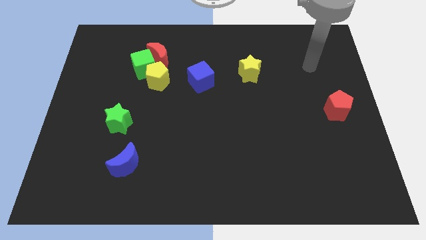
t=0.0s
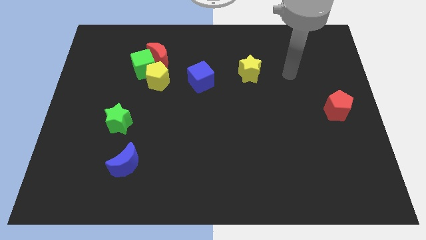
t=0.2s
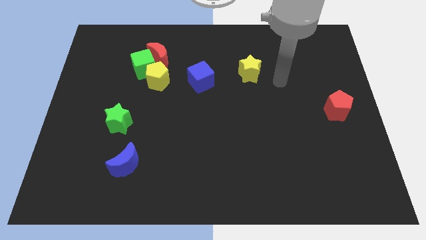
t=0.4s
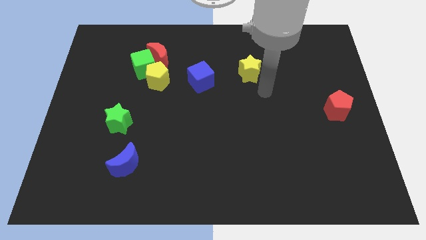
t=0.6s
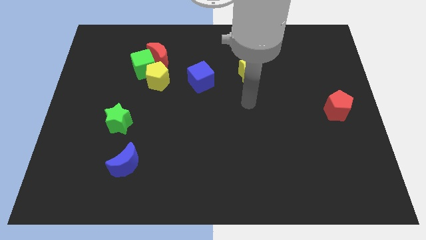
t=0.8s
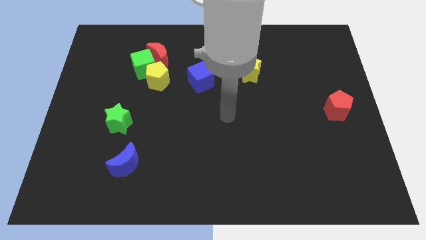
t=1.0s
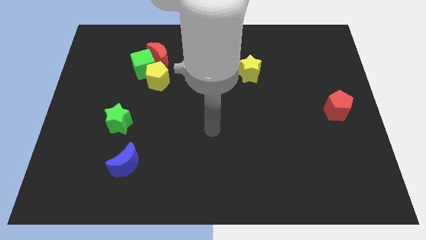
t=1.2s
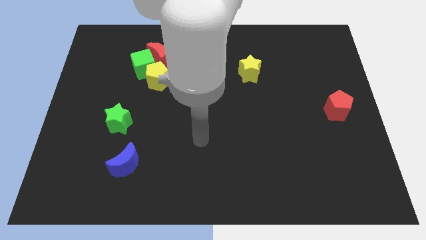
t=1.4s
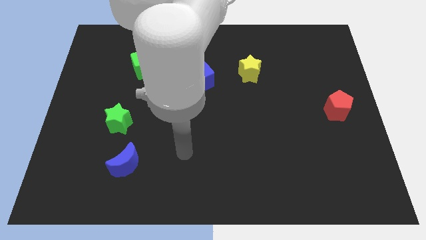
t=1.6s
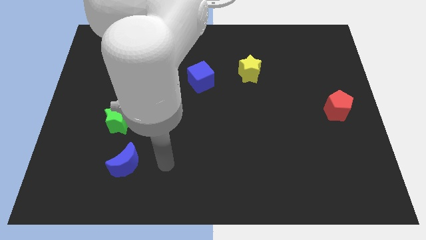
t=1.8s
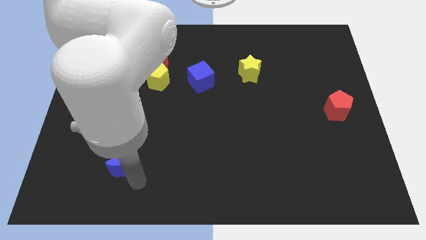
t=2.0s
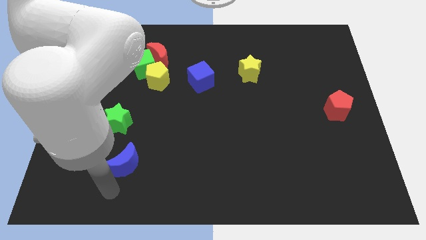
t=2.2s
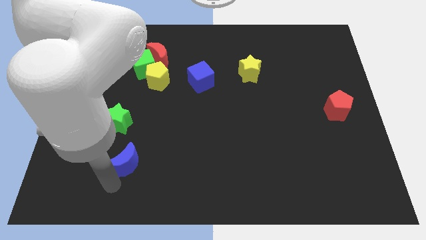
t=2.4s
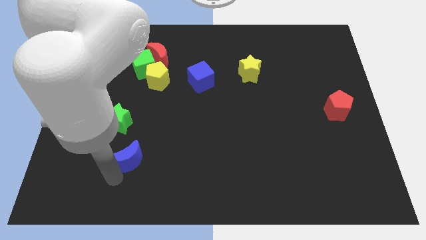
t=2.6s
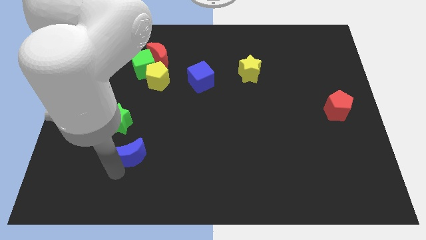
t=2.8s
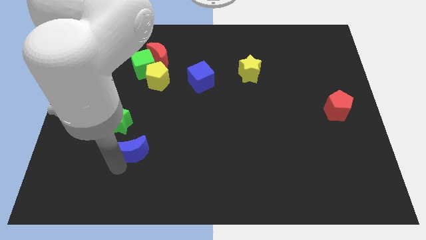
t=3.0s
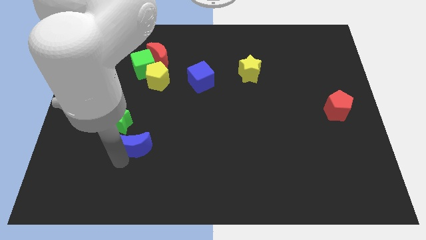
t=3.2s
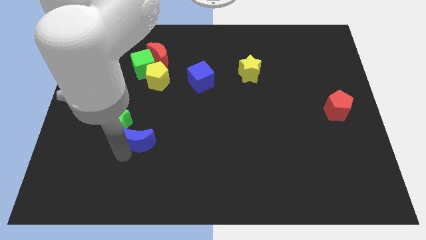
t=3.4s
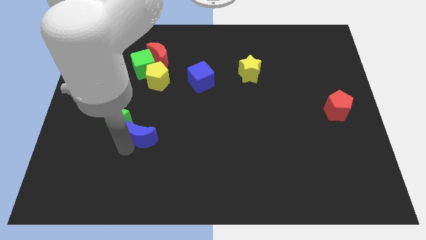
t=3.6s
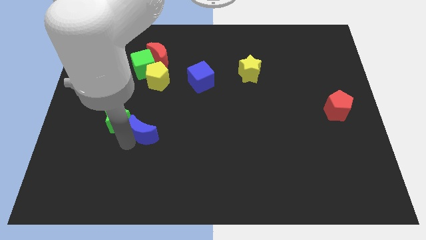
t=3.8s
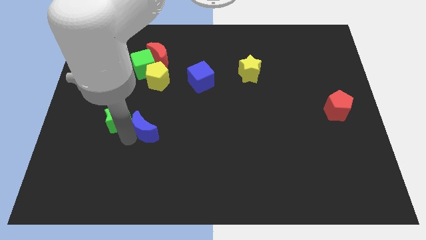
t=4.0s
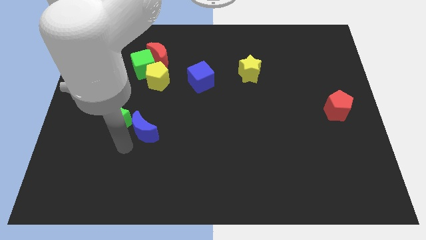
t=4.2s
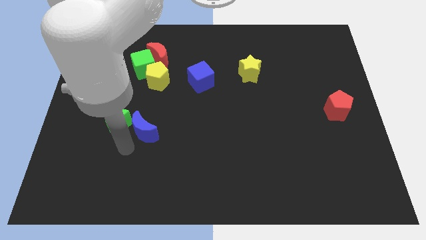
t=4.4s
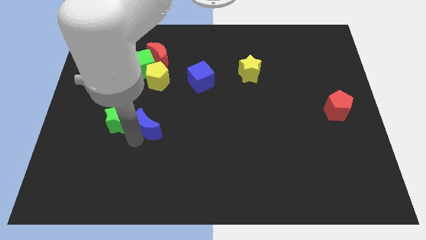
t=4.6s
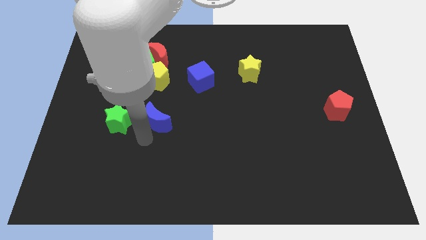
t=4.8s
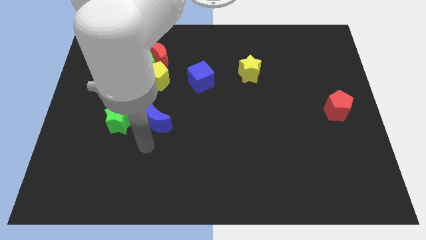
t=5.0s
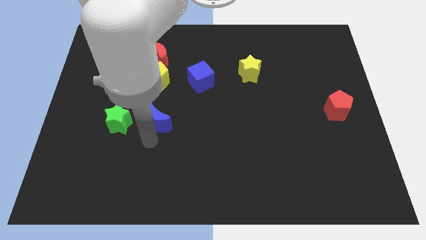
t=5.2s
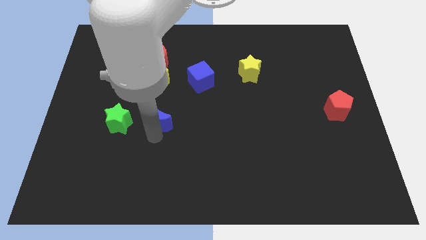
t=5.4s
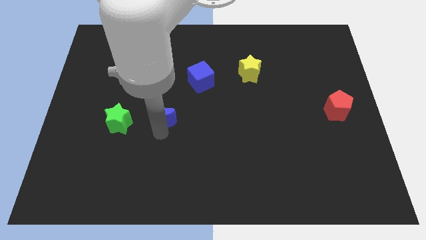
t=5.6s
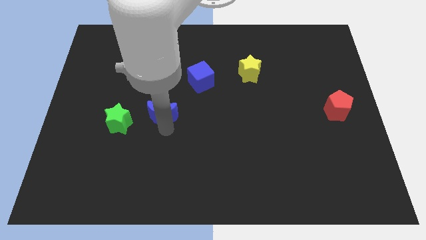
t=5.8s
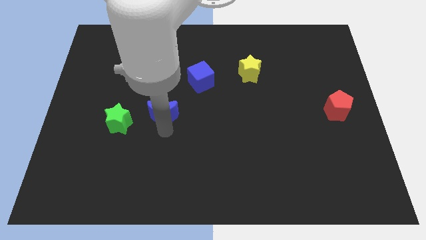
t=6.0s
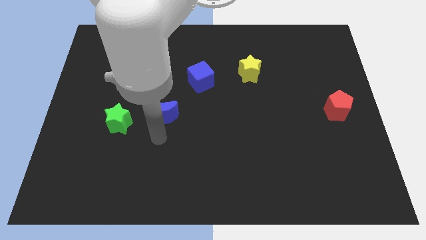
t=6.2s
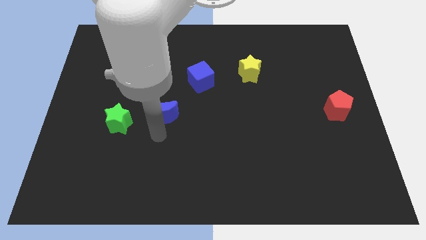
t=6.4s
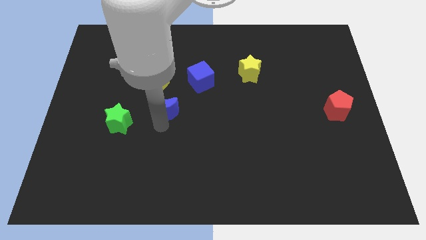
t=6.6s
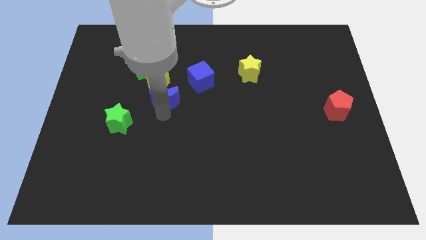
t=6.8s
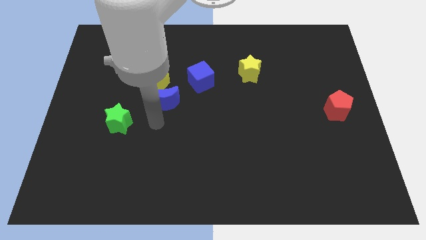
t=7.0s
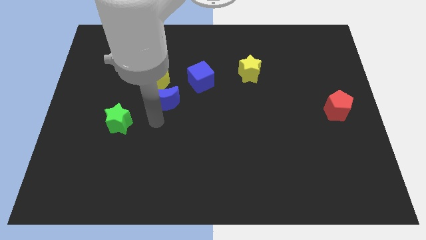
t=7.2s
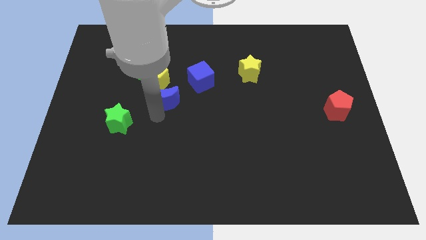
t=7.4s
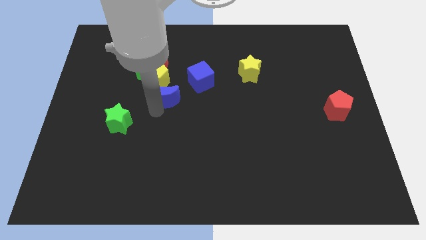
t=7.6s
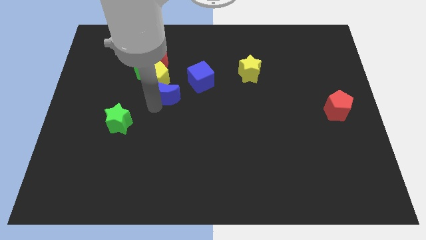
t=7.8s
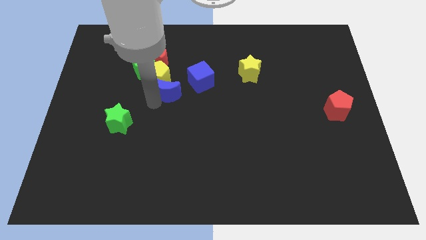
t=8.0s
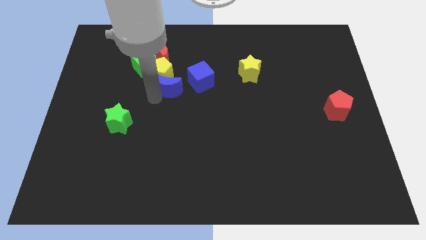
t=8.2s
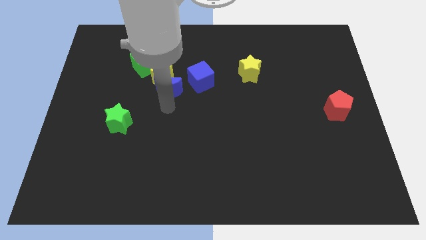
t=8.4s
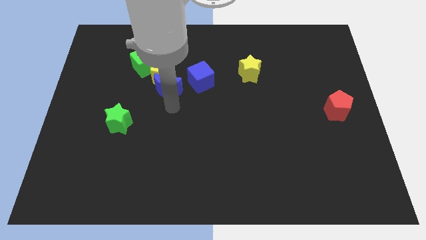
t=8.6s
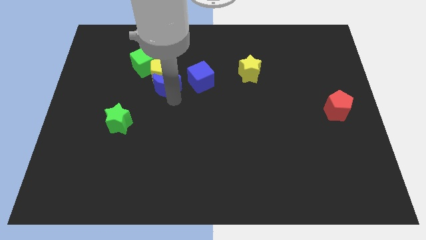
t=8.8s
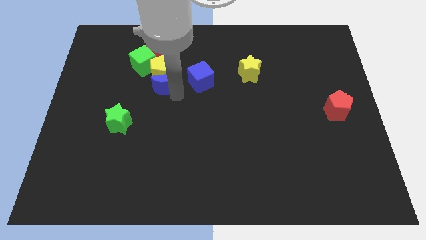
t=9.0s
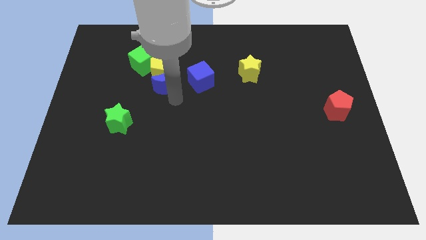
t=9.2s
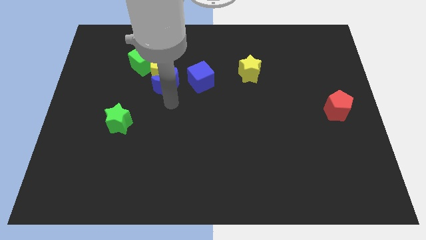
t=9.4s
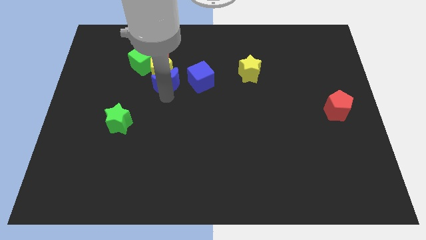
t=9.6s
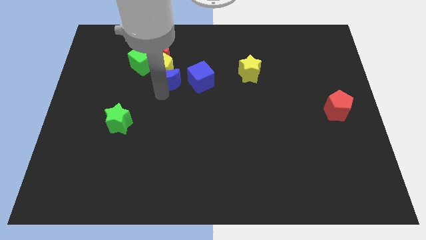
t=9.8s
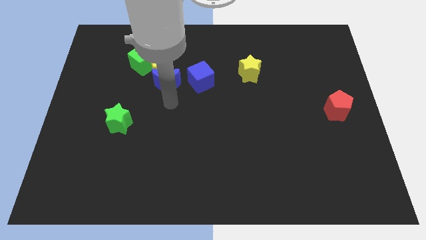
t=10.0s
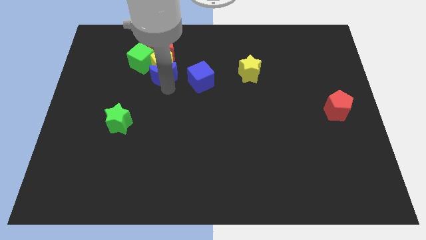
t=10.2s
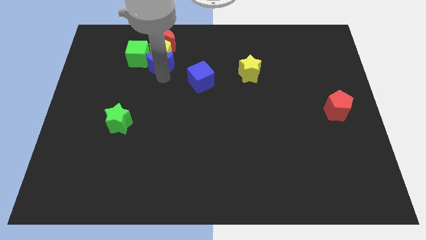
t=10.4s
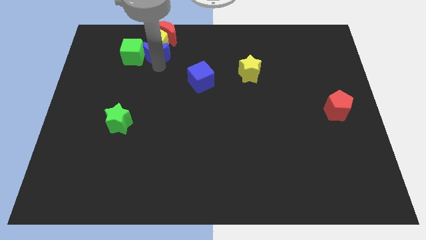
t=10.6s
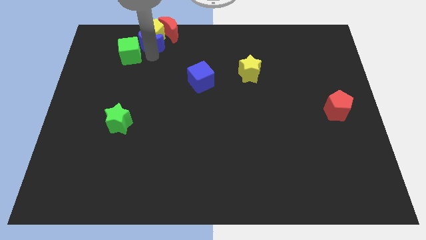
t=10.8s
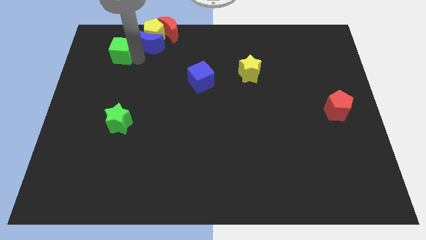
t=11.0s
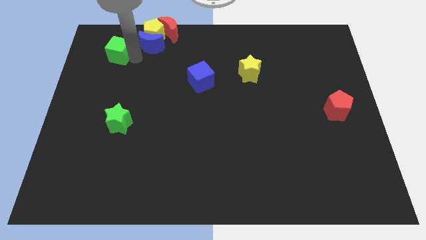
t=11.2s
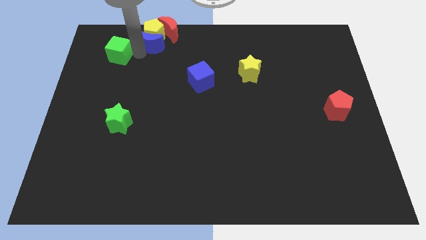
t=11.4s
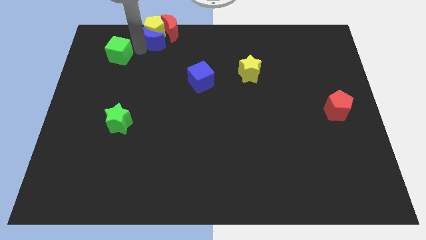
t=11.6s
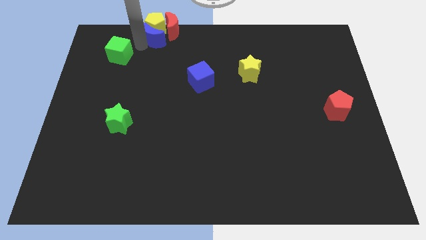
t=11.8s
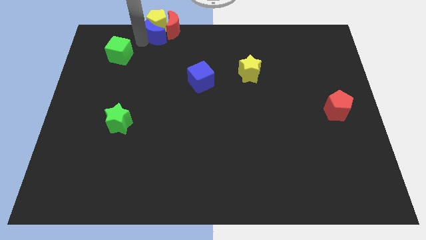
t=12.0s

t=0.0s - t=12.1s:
move the blue moon next to the red moon

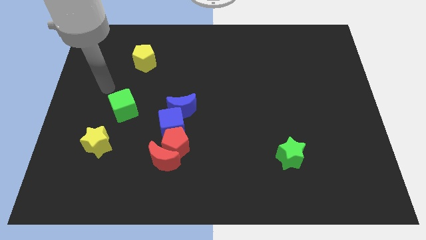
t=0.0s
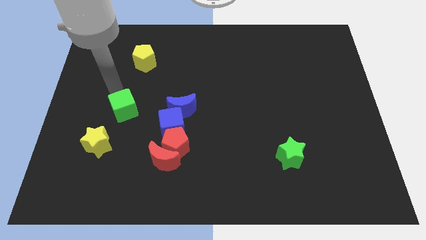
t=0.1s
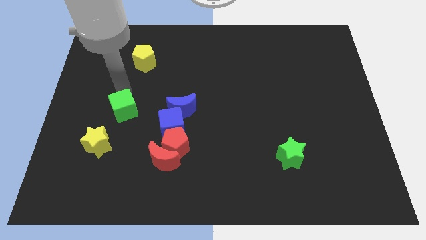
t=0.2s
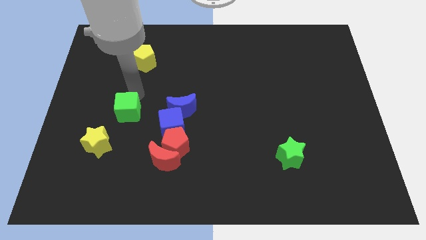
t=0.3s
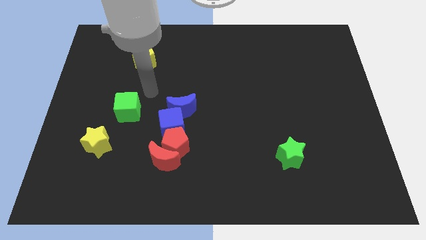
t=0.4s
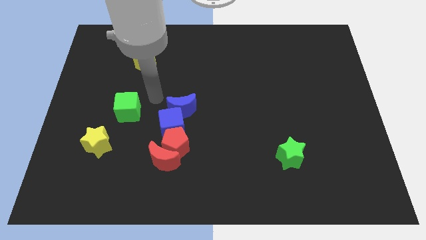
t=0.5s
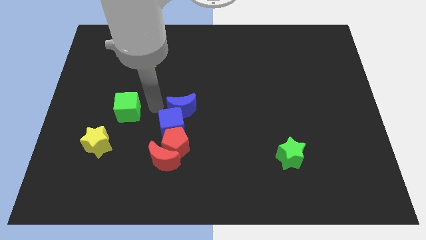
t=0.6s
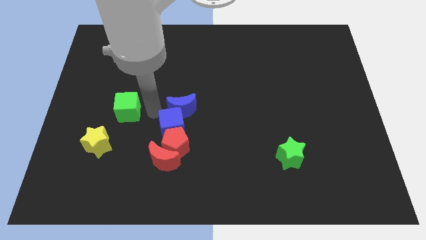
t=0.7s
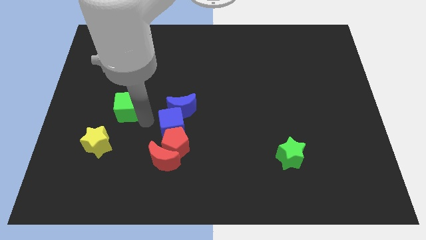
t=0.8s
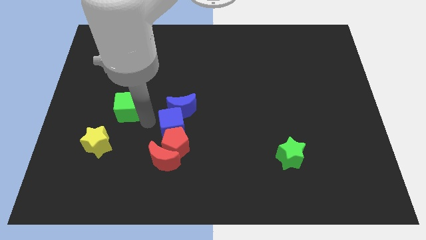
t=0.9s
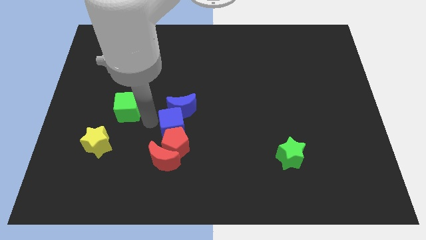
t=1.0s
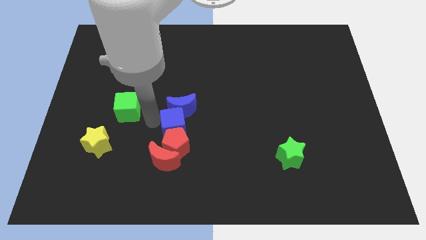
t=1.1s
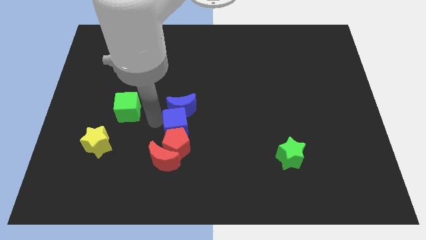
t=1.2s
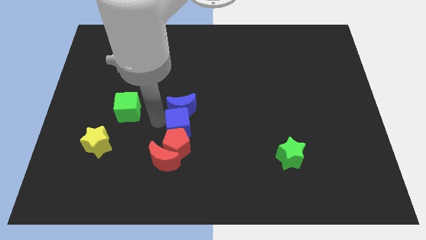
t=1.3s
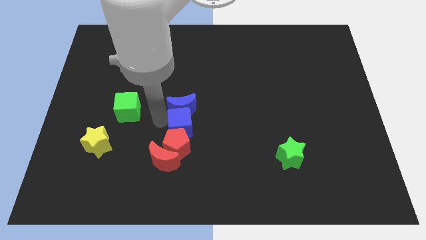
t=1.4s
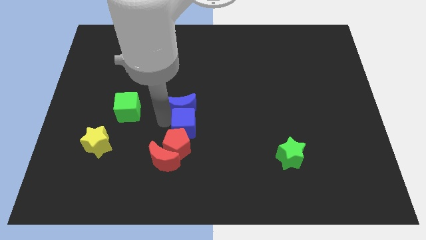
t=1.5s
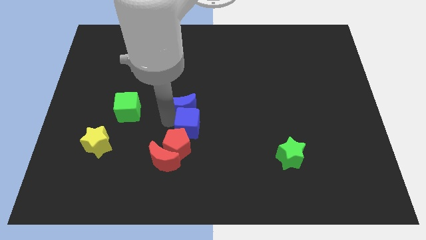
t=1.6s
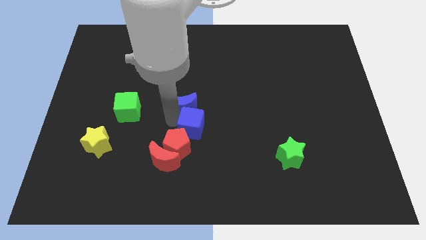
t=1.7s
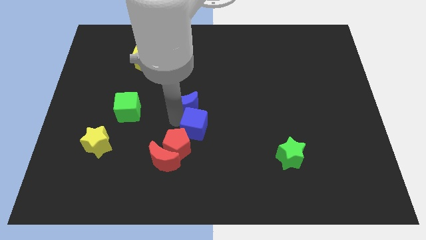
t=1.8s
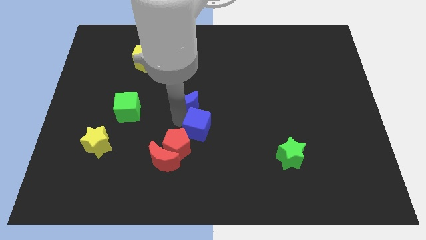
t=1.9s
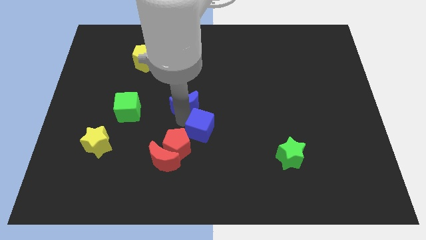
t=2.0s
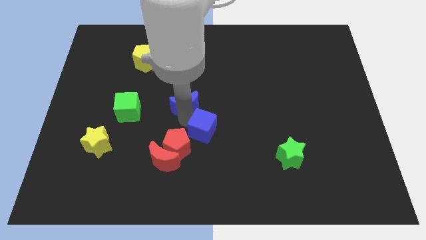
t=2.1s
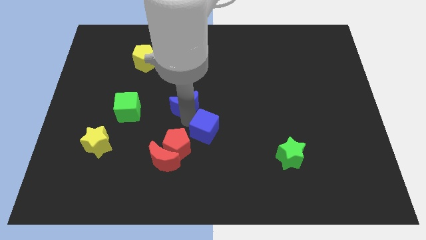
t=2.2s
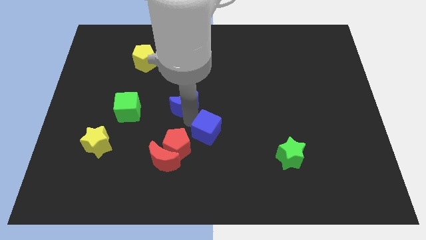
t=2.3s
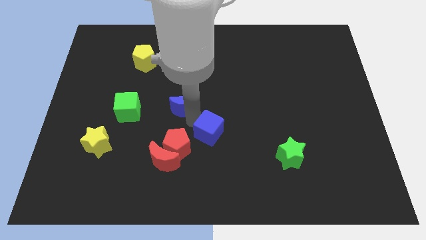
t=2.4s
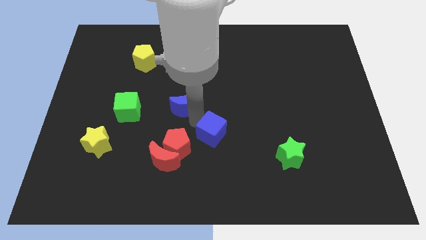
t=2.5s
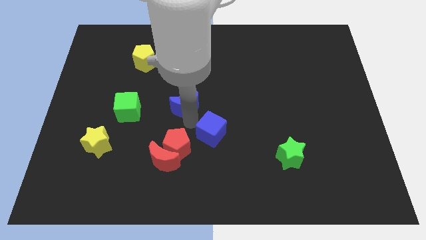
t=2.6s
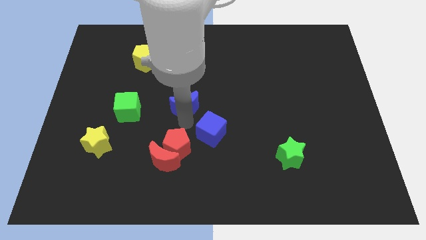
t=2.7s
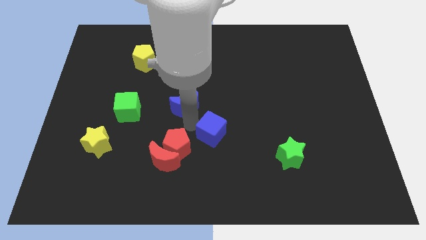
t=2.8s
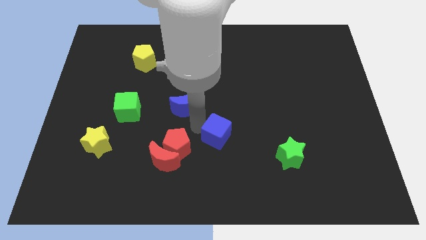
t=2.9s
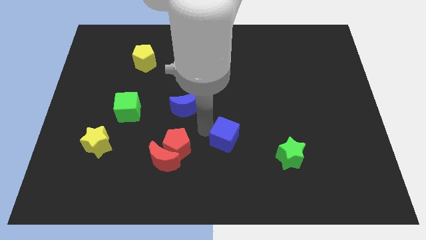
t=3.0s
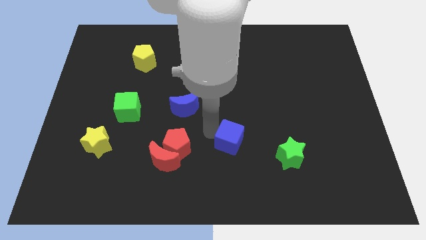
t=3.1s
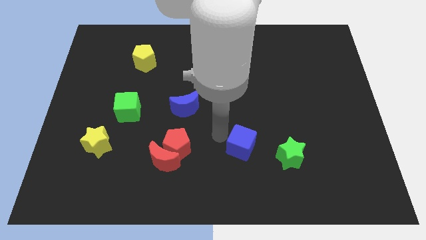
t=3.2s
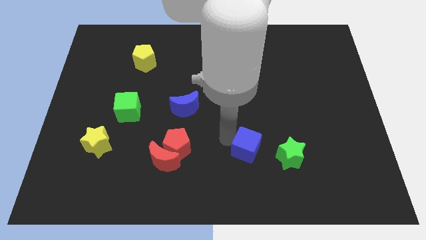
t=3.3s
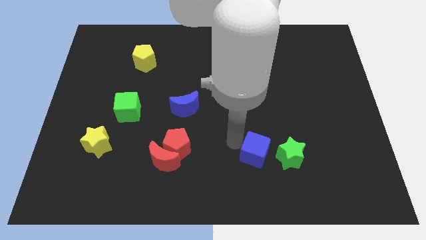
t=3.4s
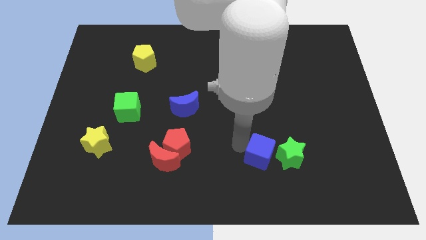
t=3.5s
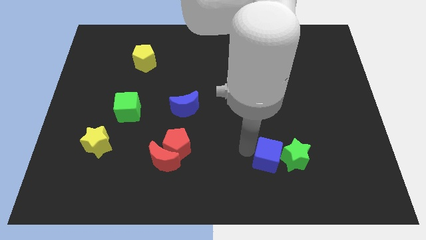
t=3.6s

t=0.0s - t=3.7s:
put the blue cube to the green star
